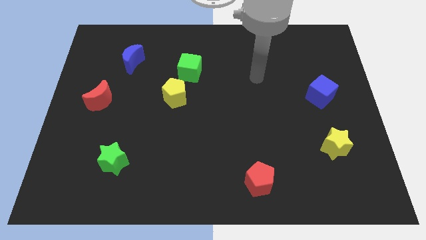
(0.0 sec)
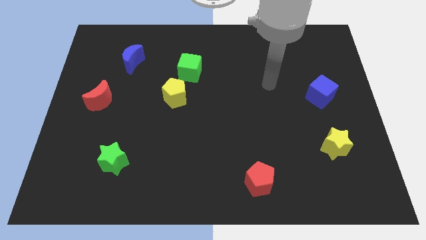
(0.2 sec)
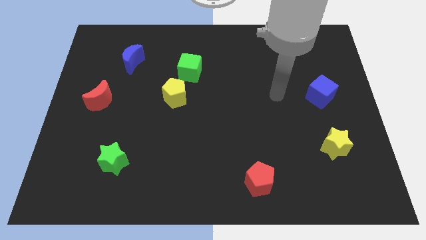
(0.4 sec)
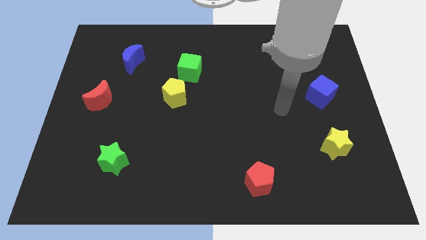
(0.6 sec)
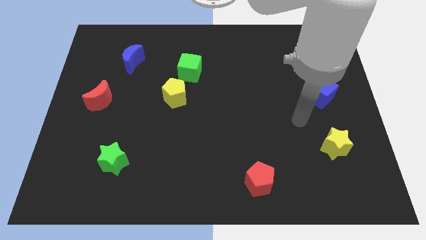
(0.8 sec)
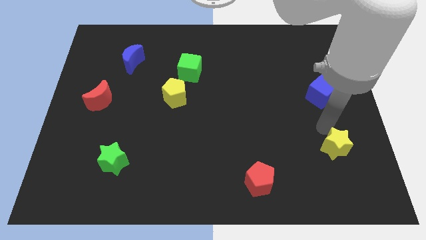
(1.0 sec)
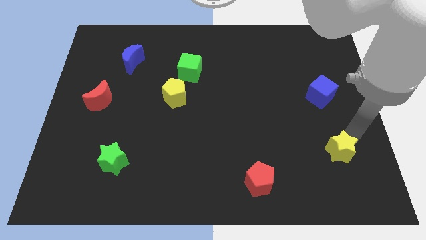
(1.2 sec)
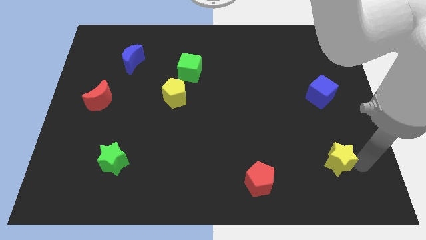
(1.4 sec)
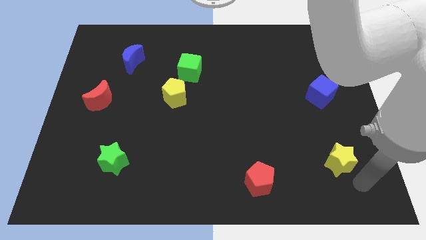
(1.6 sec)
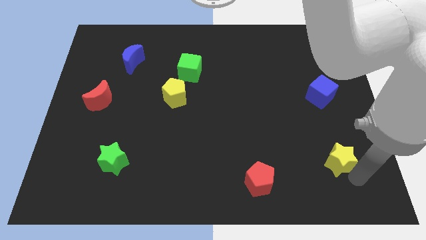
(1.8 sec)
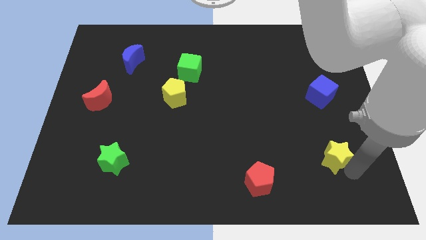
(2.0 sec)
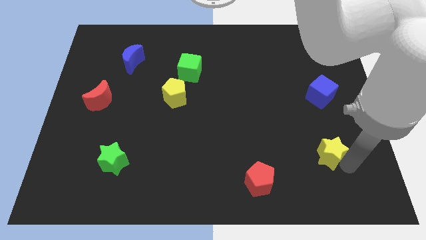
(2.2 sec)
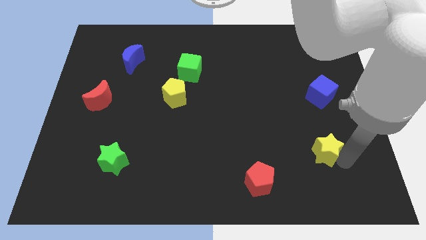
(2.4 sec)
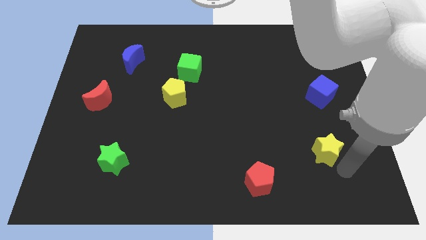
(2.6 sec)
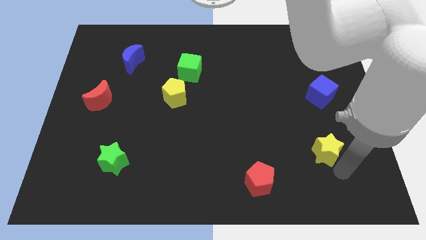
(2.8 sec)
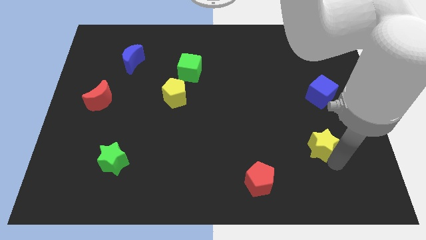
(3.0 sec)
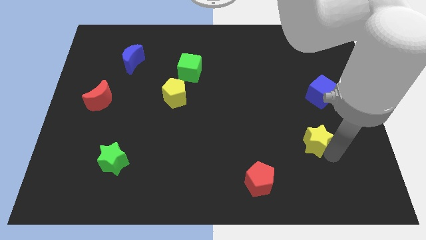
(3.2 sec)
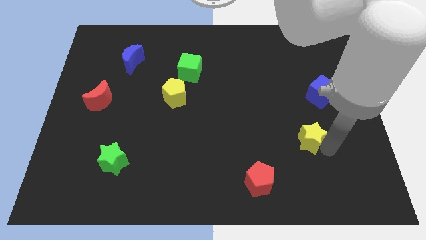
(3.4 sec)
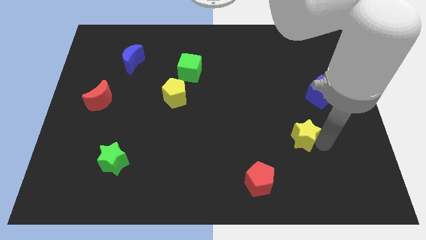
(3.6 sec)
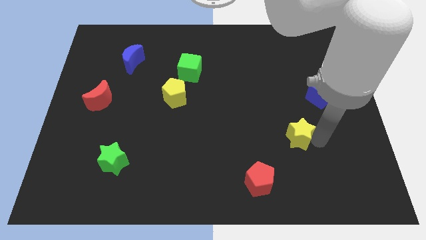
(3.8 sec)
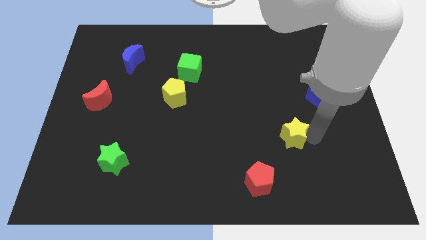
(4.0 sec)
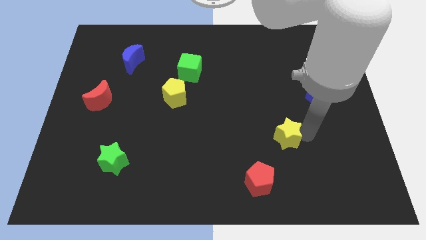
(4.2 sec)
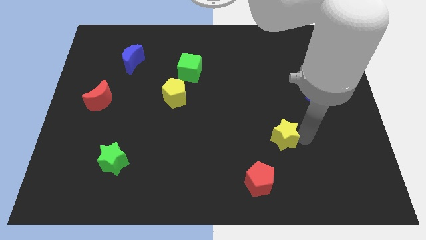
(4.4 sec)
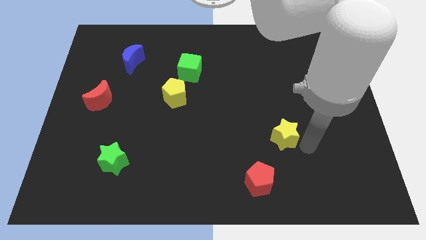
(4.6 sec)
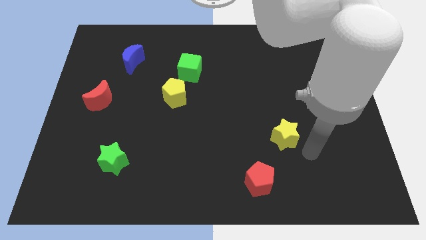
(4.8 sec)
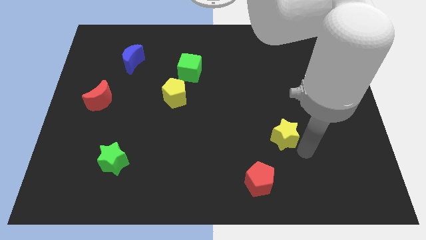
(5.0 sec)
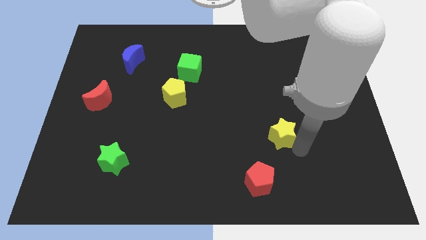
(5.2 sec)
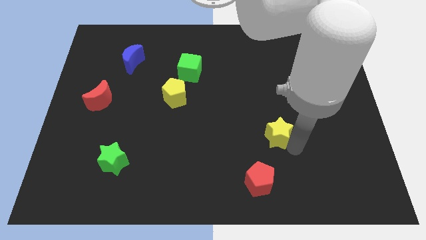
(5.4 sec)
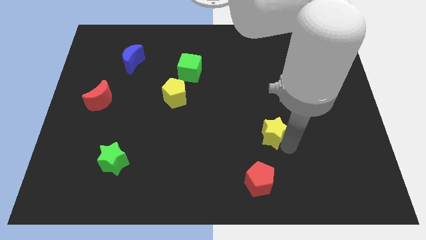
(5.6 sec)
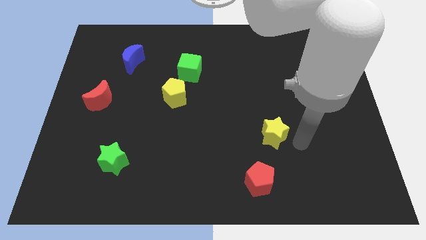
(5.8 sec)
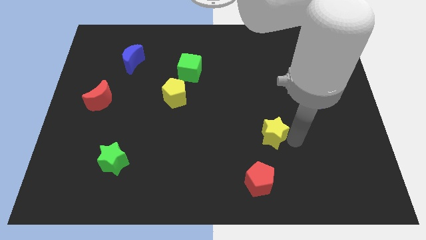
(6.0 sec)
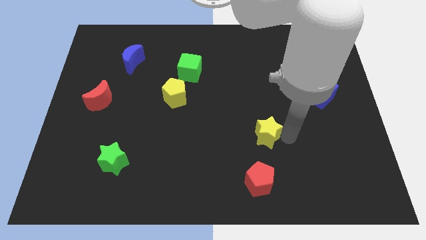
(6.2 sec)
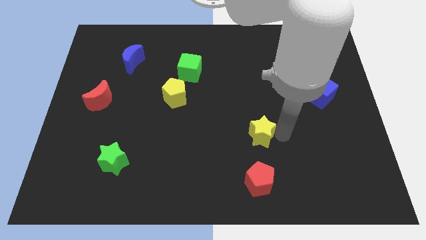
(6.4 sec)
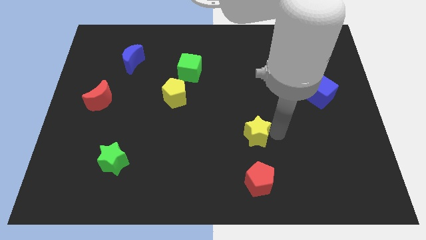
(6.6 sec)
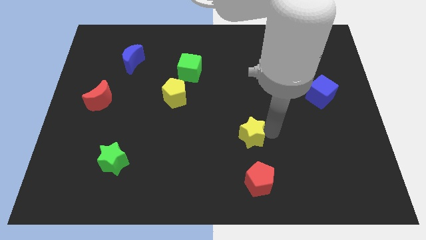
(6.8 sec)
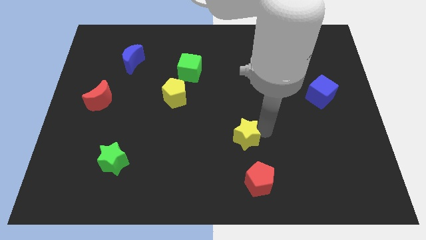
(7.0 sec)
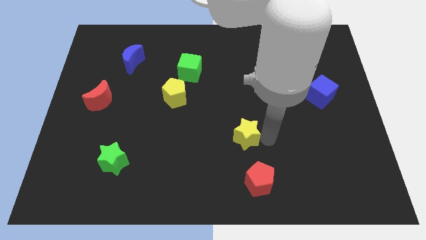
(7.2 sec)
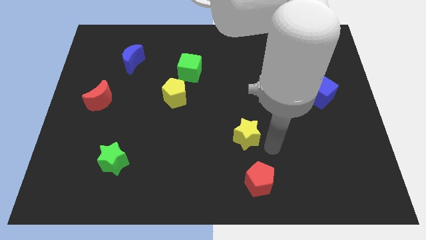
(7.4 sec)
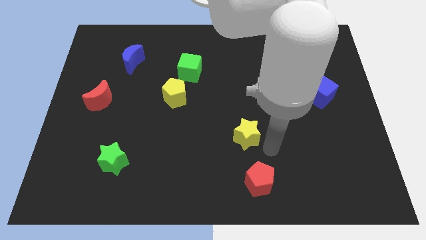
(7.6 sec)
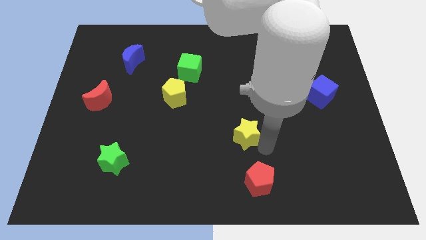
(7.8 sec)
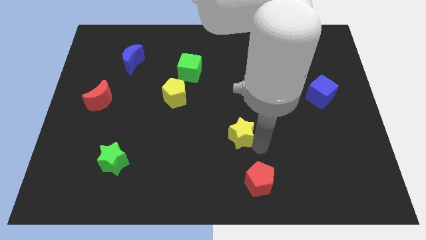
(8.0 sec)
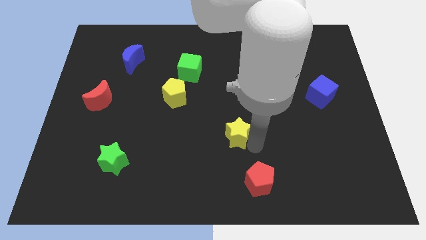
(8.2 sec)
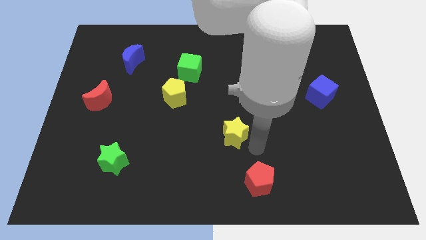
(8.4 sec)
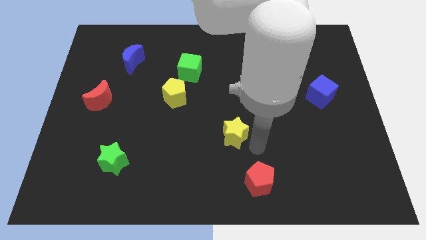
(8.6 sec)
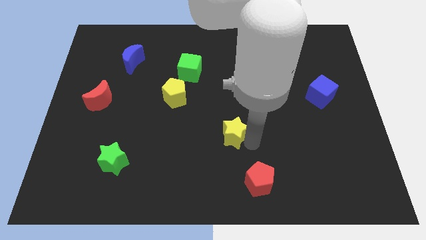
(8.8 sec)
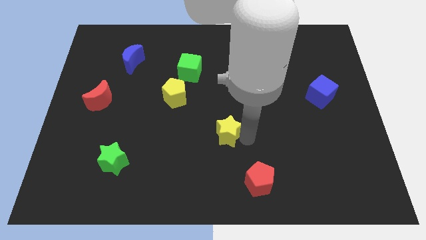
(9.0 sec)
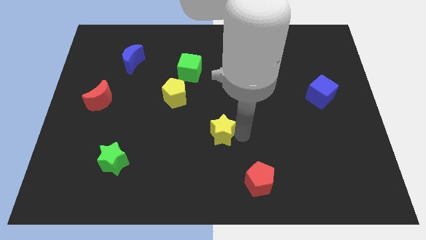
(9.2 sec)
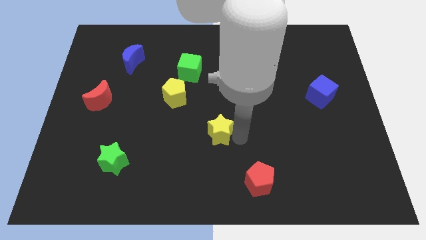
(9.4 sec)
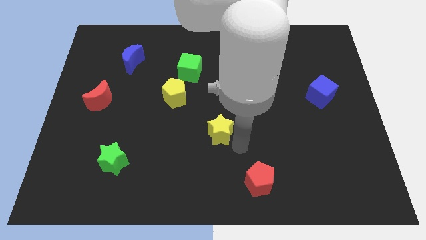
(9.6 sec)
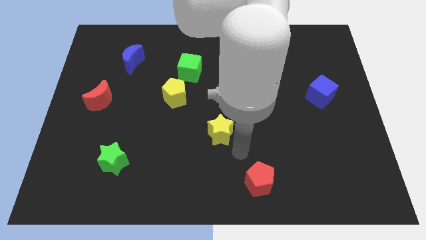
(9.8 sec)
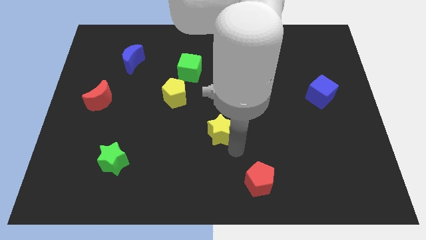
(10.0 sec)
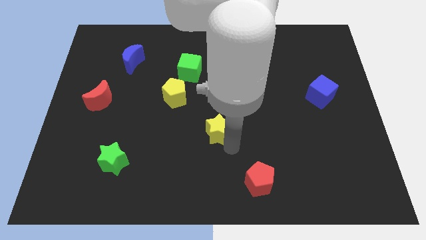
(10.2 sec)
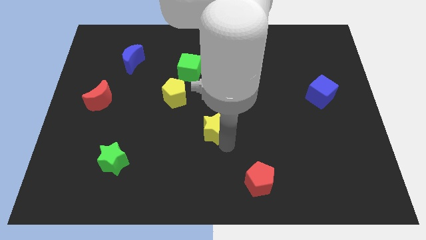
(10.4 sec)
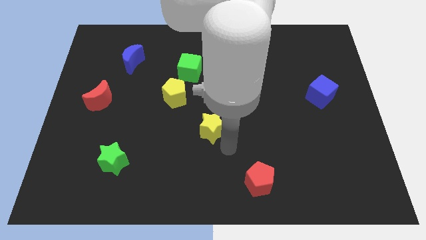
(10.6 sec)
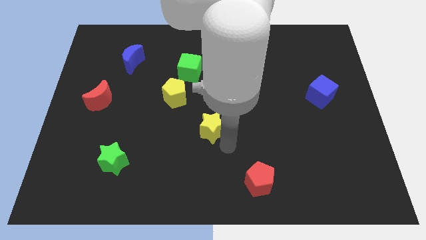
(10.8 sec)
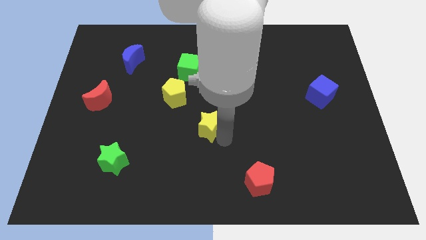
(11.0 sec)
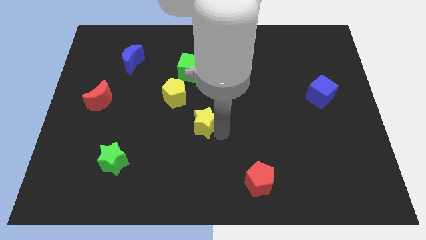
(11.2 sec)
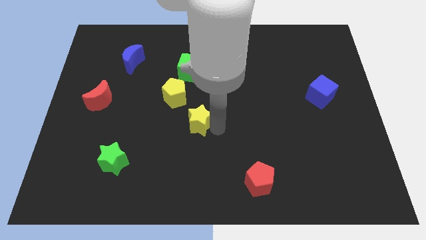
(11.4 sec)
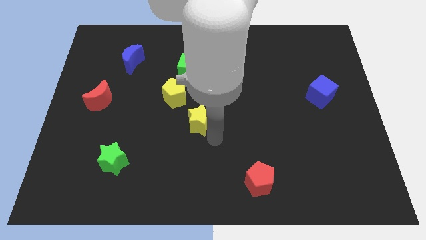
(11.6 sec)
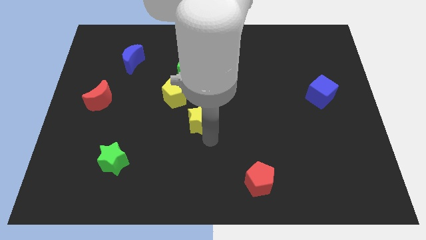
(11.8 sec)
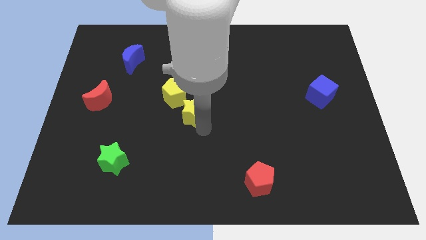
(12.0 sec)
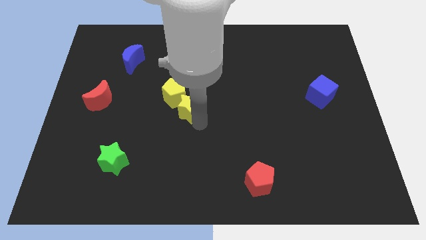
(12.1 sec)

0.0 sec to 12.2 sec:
put the yellow star close to the yellow pentagon

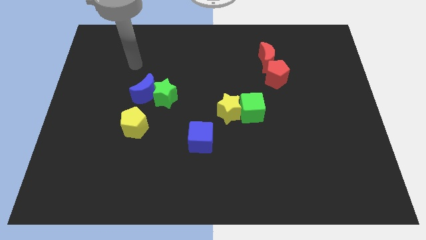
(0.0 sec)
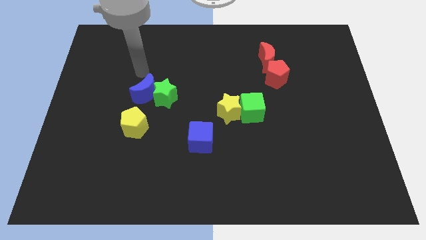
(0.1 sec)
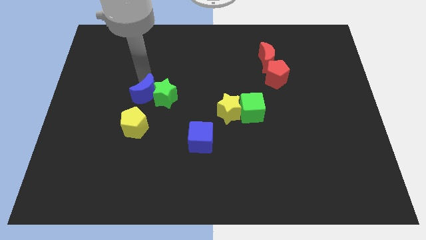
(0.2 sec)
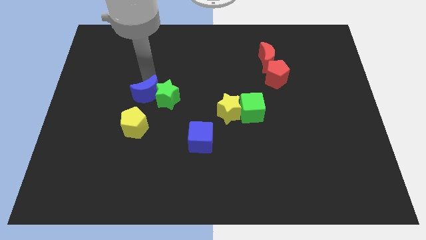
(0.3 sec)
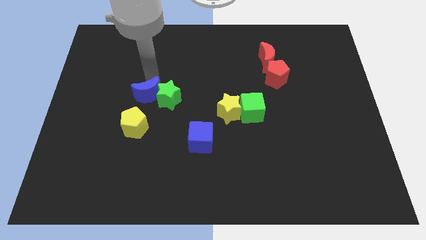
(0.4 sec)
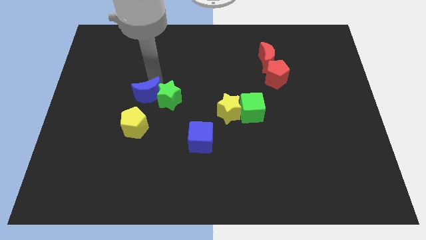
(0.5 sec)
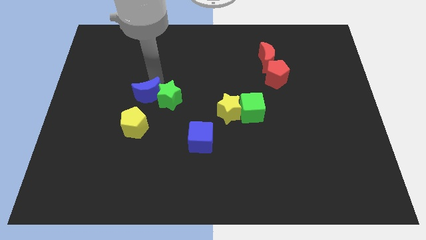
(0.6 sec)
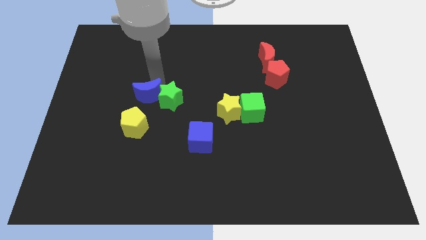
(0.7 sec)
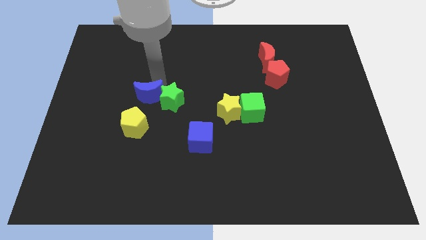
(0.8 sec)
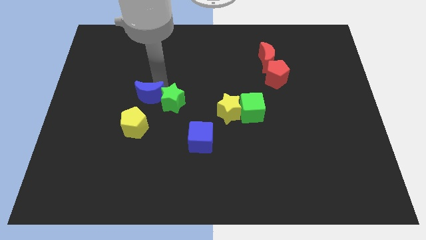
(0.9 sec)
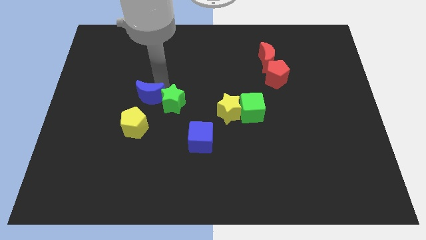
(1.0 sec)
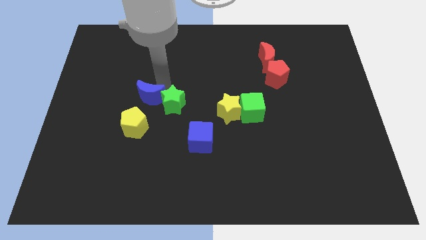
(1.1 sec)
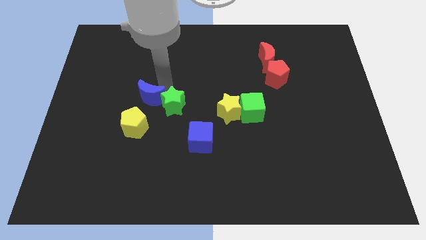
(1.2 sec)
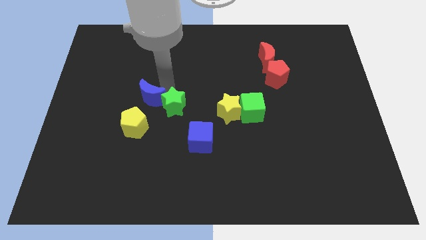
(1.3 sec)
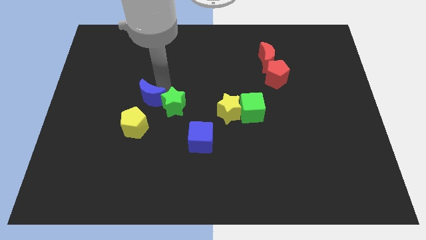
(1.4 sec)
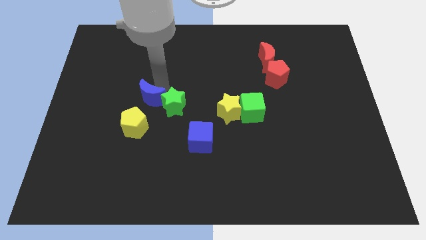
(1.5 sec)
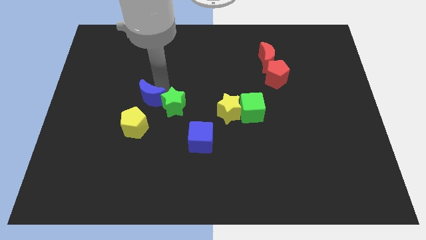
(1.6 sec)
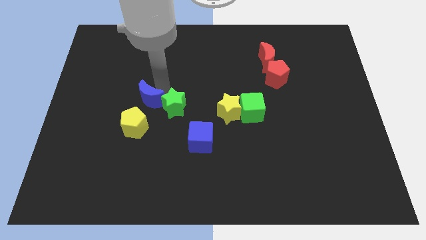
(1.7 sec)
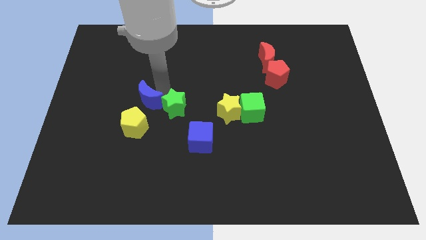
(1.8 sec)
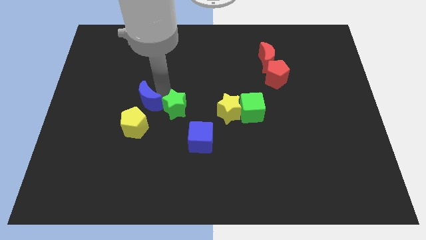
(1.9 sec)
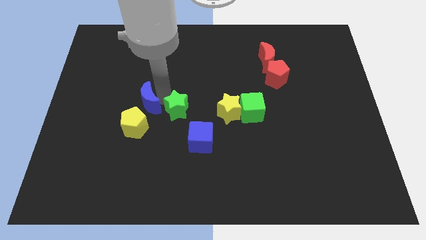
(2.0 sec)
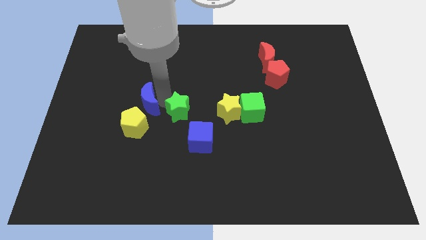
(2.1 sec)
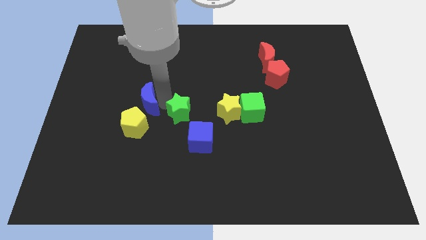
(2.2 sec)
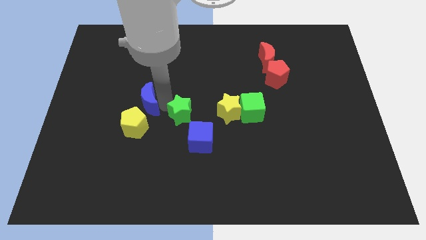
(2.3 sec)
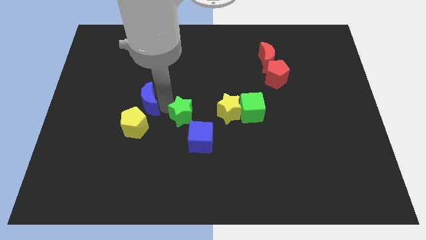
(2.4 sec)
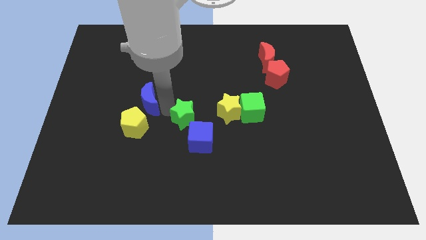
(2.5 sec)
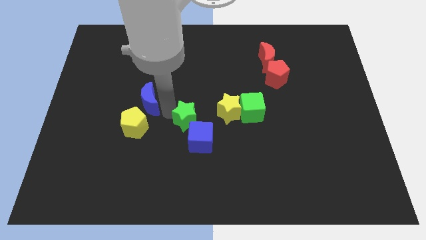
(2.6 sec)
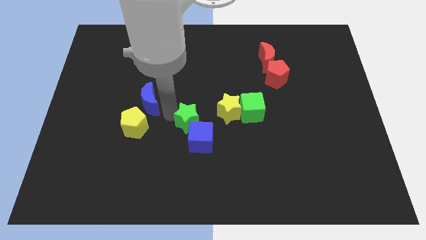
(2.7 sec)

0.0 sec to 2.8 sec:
push the green star towards the blue cube
